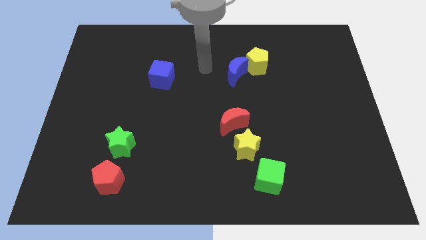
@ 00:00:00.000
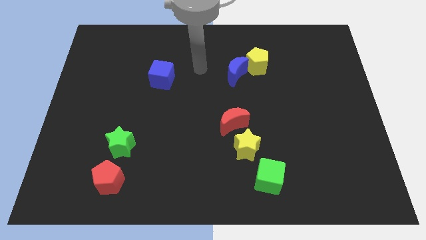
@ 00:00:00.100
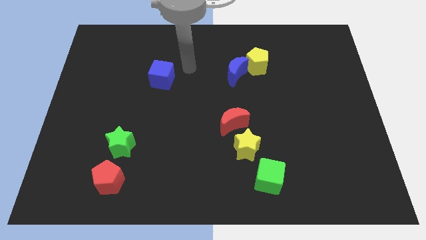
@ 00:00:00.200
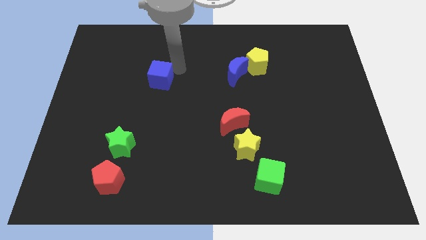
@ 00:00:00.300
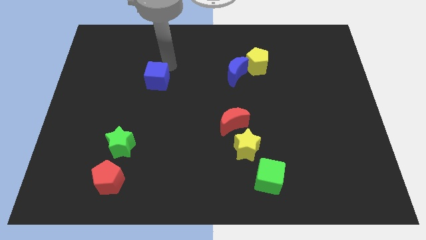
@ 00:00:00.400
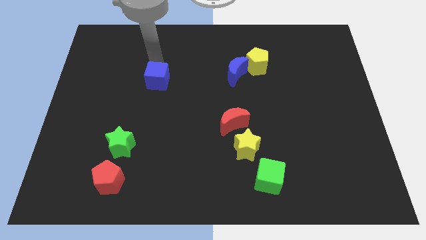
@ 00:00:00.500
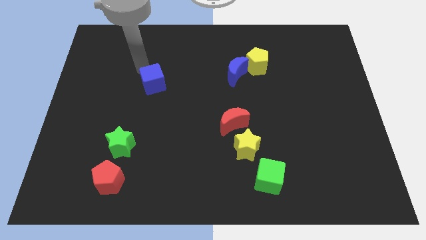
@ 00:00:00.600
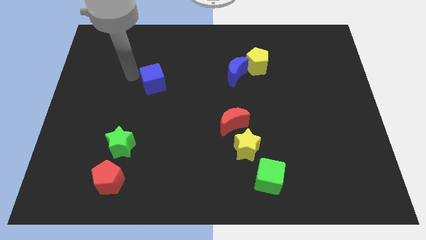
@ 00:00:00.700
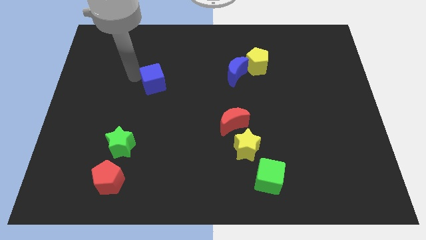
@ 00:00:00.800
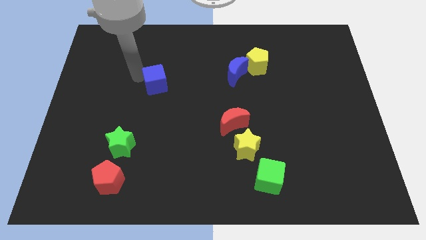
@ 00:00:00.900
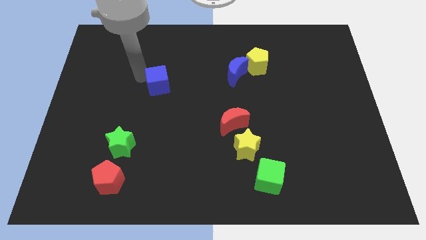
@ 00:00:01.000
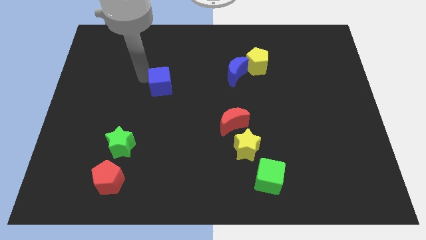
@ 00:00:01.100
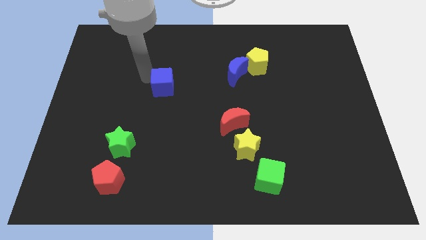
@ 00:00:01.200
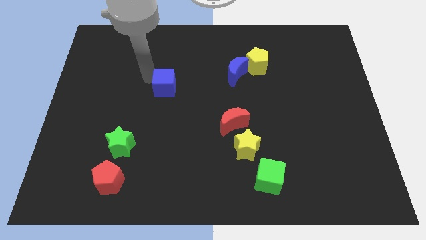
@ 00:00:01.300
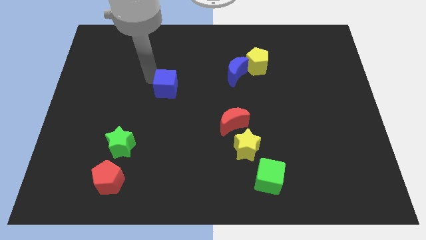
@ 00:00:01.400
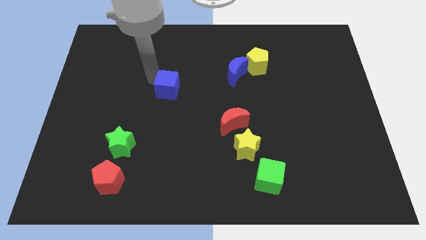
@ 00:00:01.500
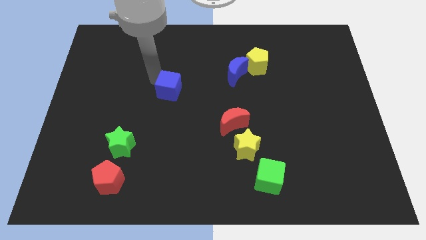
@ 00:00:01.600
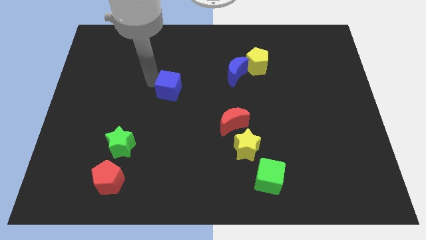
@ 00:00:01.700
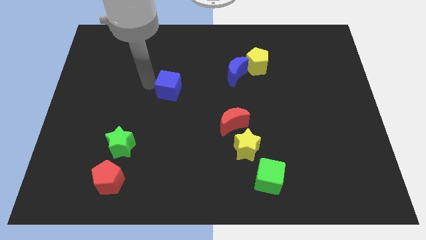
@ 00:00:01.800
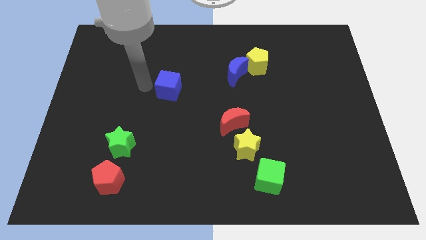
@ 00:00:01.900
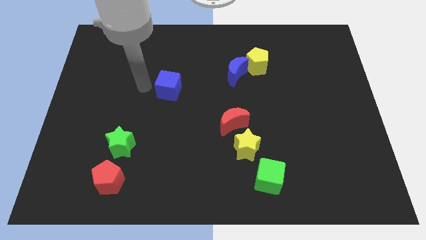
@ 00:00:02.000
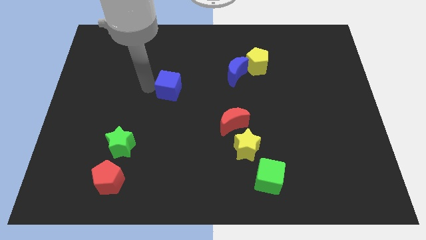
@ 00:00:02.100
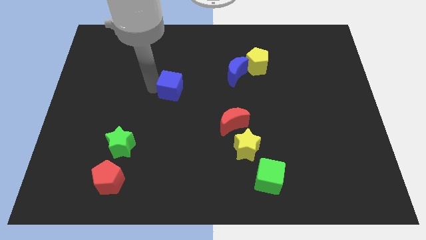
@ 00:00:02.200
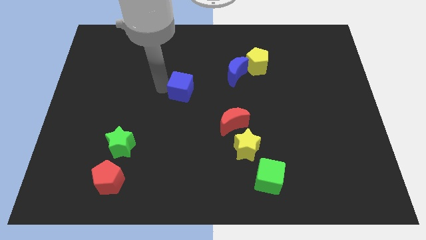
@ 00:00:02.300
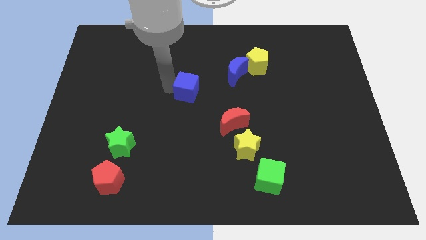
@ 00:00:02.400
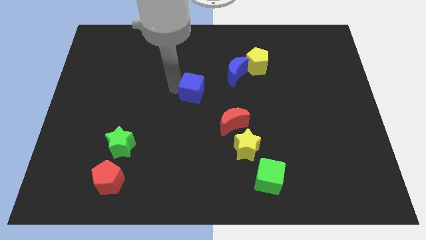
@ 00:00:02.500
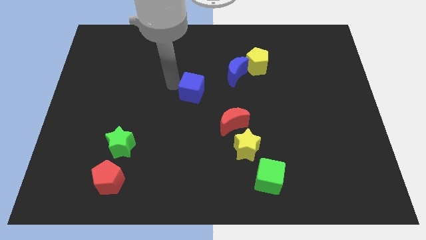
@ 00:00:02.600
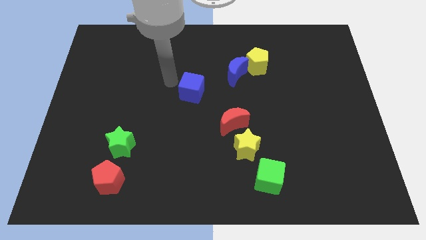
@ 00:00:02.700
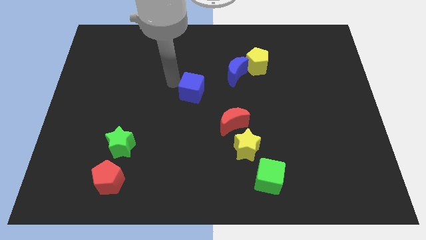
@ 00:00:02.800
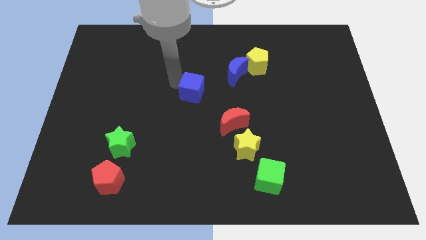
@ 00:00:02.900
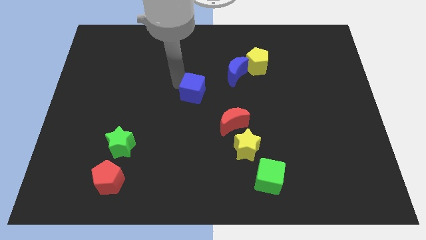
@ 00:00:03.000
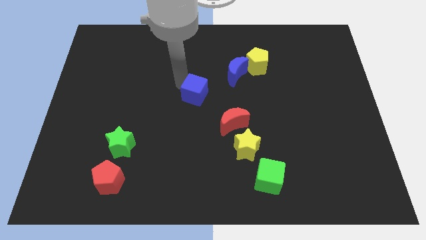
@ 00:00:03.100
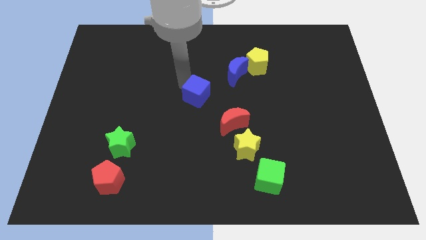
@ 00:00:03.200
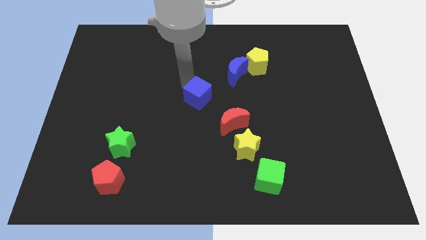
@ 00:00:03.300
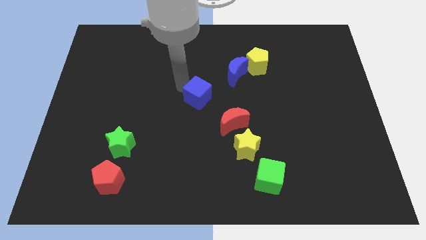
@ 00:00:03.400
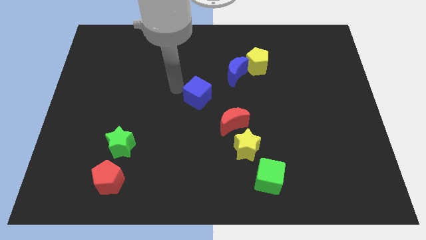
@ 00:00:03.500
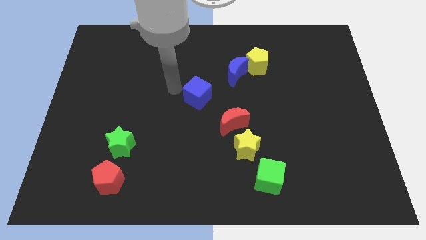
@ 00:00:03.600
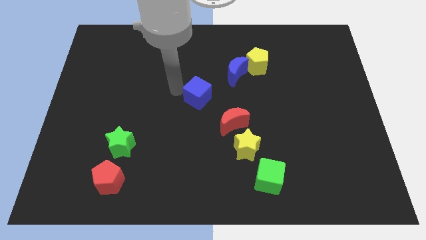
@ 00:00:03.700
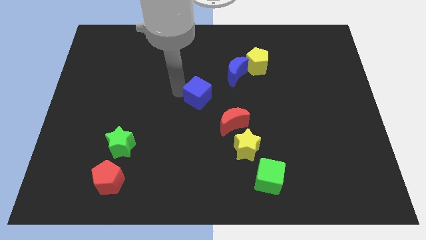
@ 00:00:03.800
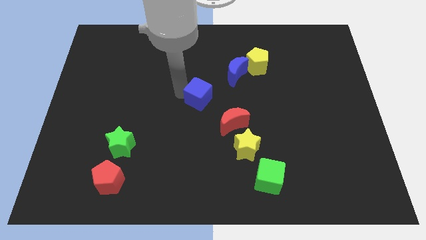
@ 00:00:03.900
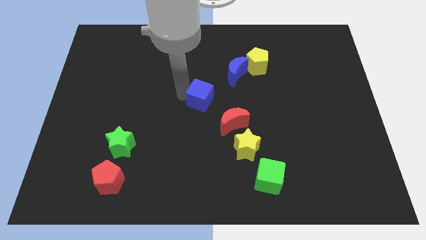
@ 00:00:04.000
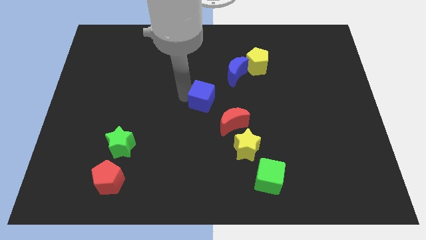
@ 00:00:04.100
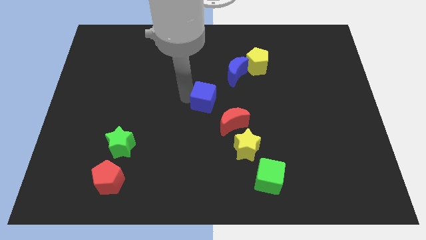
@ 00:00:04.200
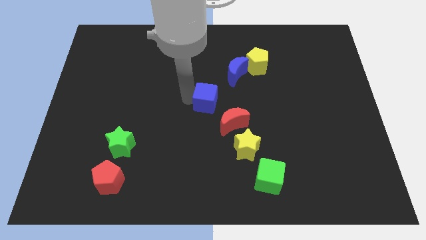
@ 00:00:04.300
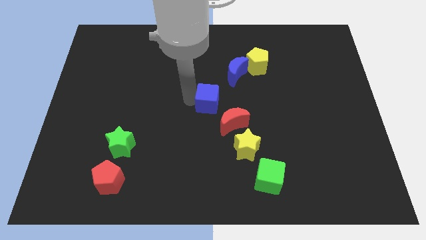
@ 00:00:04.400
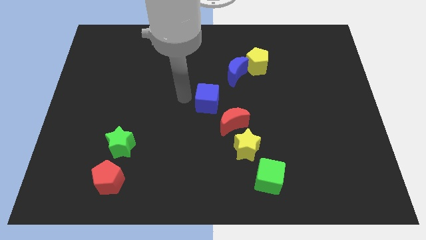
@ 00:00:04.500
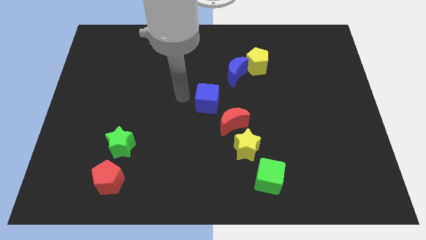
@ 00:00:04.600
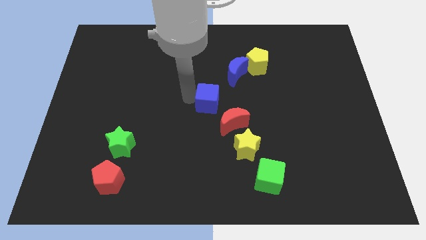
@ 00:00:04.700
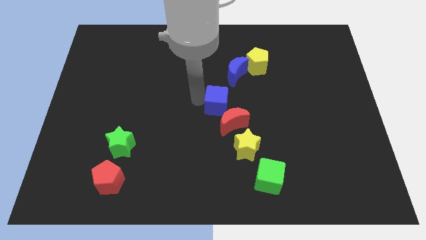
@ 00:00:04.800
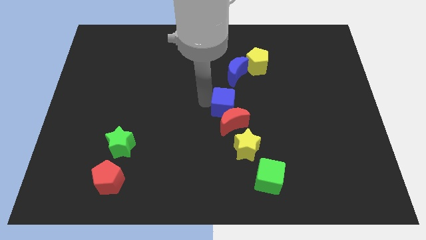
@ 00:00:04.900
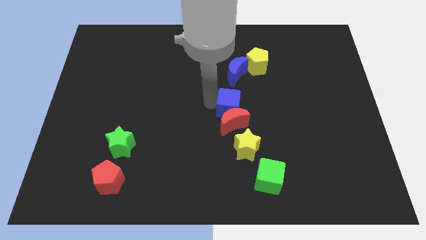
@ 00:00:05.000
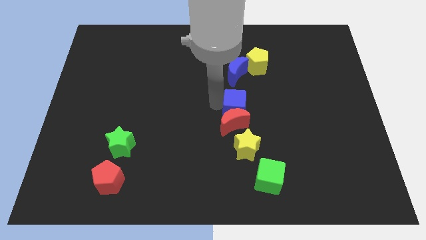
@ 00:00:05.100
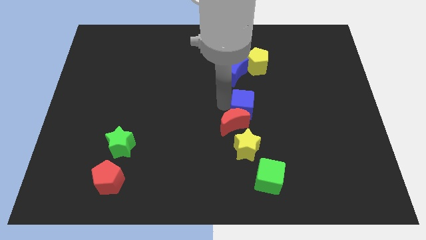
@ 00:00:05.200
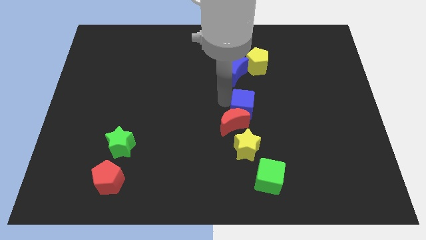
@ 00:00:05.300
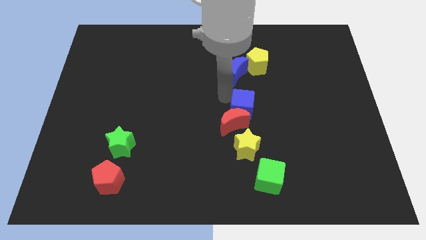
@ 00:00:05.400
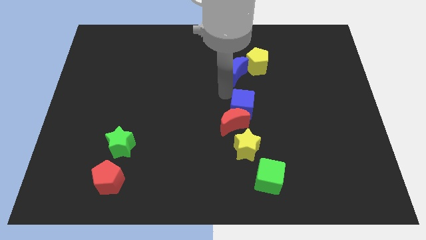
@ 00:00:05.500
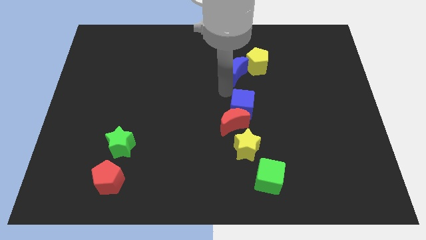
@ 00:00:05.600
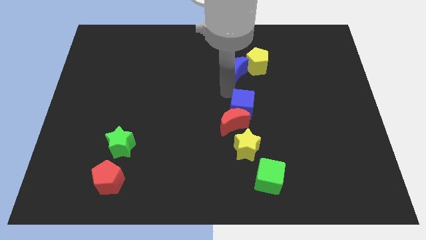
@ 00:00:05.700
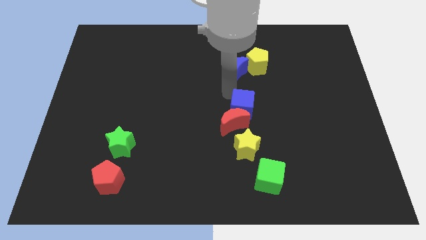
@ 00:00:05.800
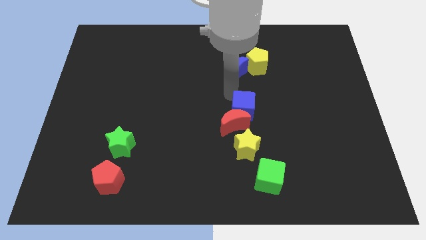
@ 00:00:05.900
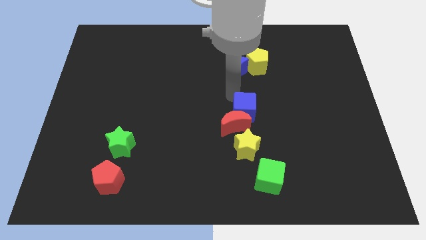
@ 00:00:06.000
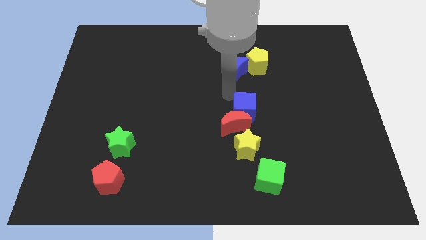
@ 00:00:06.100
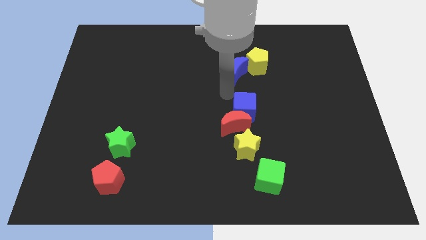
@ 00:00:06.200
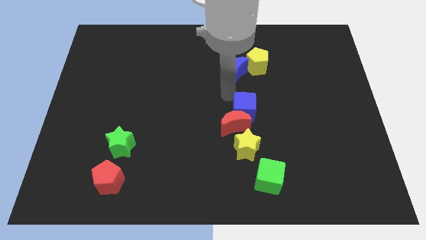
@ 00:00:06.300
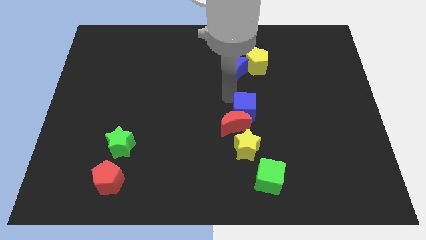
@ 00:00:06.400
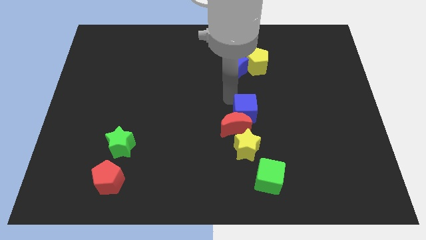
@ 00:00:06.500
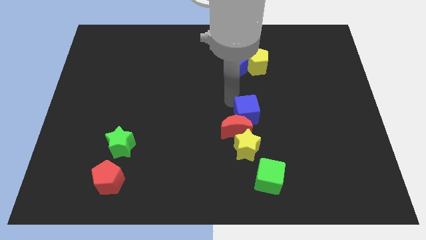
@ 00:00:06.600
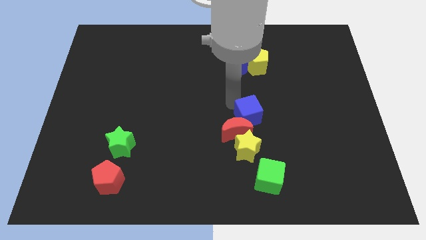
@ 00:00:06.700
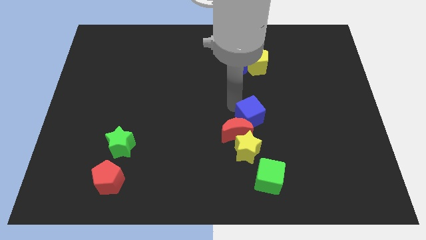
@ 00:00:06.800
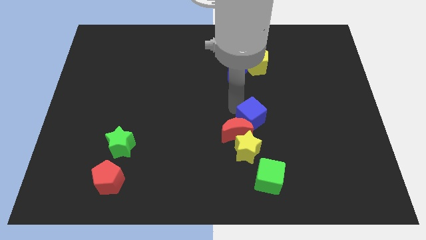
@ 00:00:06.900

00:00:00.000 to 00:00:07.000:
move the blue cube to the top right side of the yellow star

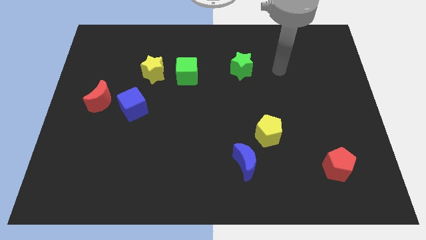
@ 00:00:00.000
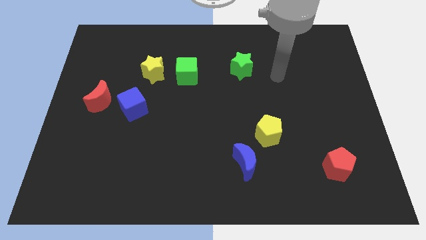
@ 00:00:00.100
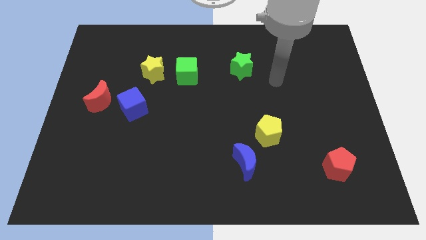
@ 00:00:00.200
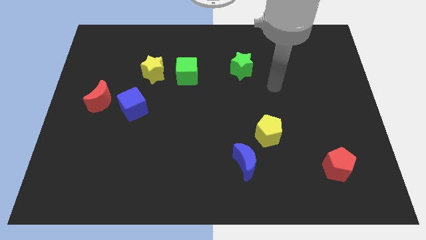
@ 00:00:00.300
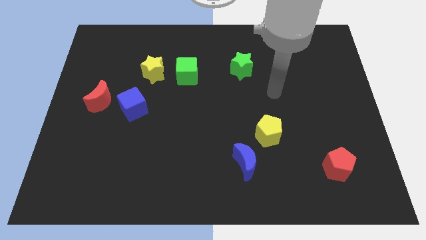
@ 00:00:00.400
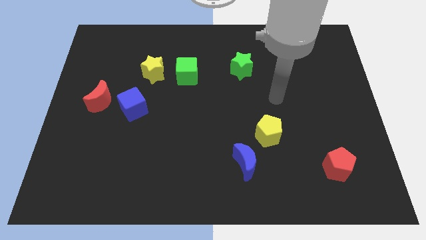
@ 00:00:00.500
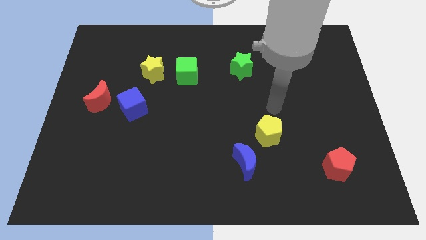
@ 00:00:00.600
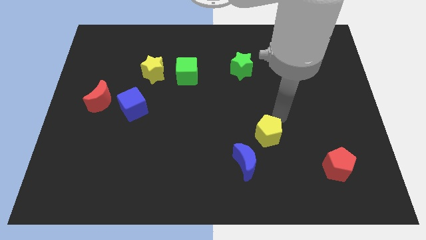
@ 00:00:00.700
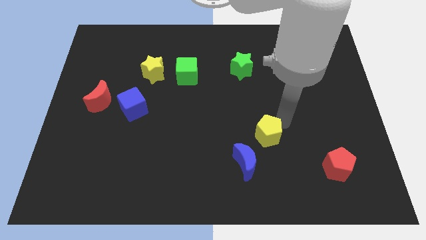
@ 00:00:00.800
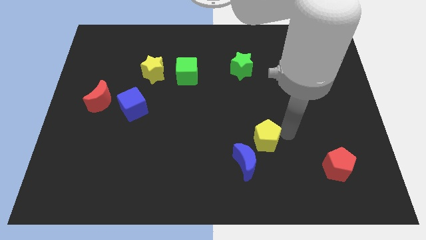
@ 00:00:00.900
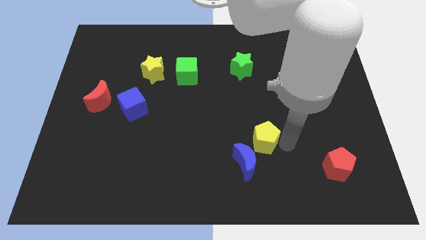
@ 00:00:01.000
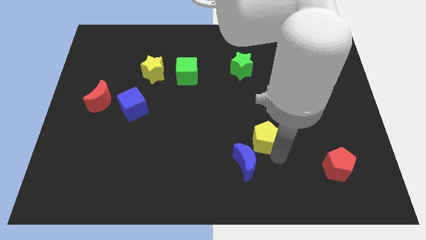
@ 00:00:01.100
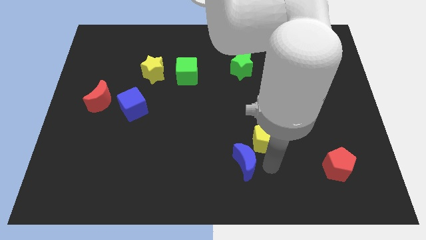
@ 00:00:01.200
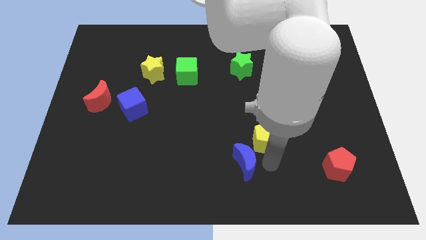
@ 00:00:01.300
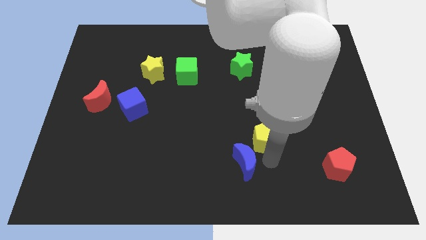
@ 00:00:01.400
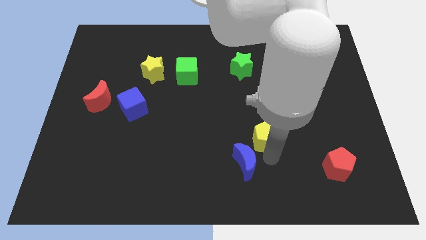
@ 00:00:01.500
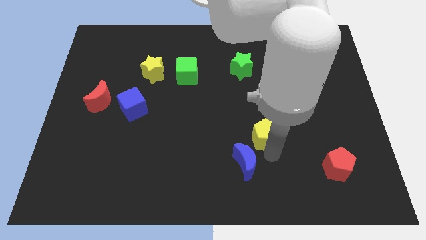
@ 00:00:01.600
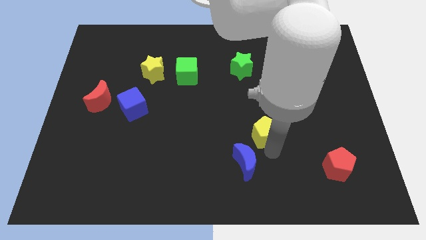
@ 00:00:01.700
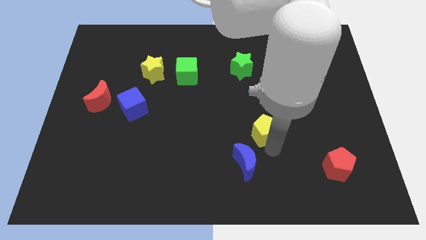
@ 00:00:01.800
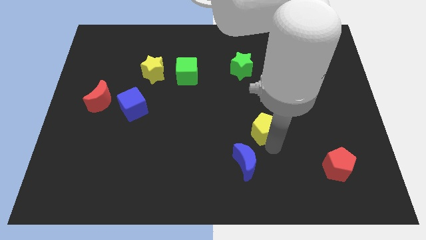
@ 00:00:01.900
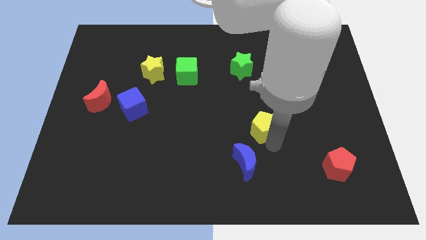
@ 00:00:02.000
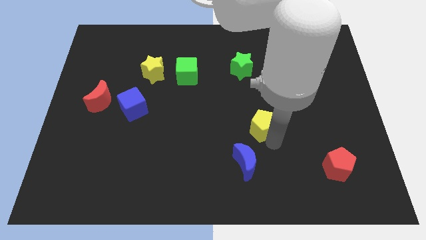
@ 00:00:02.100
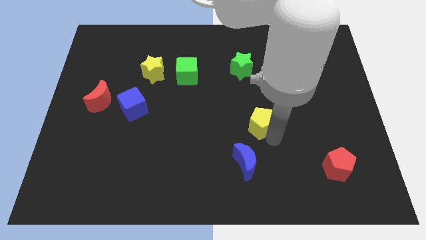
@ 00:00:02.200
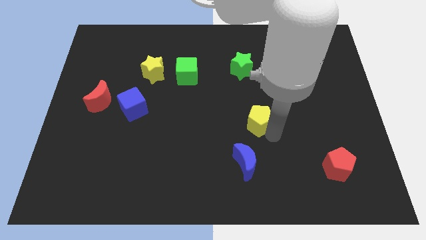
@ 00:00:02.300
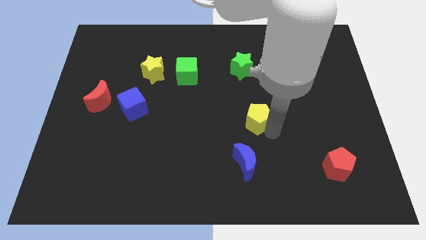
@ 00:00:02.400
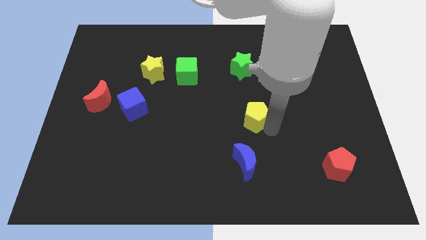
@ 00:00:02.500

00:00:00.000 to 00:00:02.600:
slide the yellow pentagon below the green star
